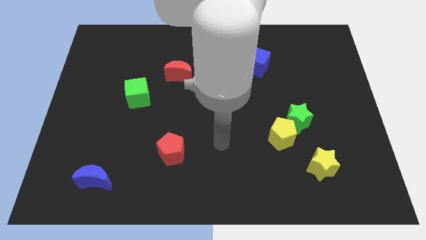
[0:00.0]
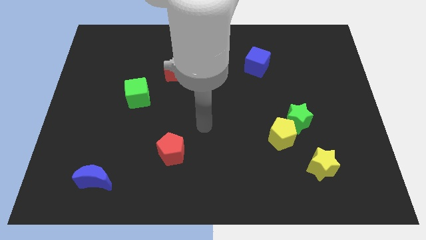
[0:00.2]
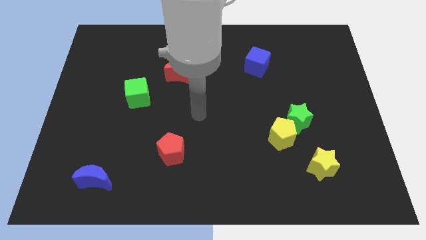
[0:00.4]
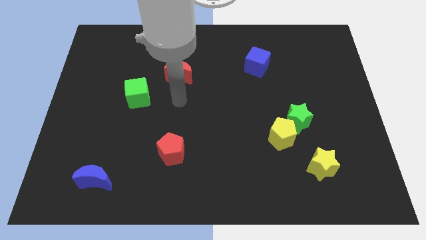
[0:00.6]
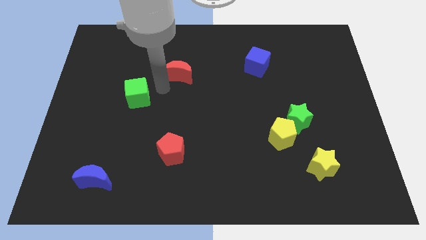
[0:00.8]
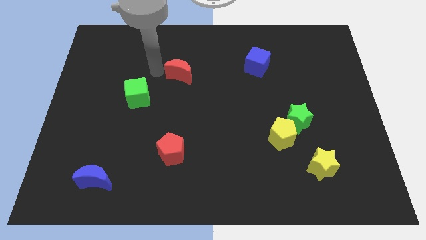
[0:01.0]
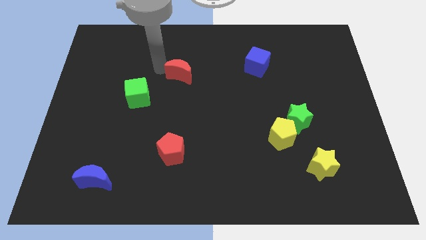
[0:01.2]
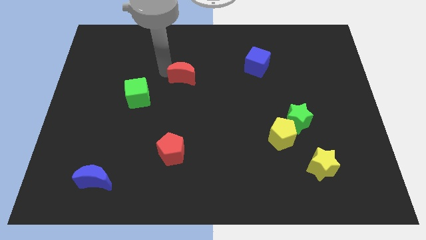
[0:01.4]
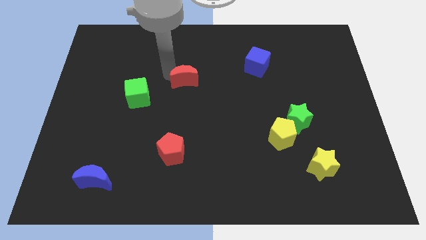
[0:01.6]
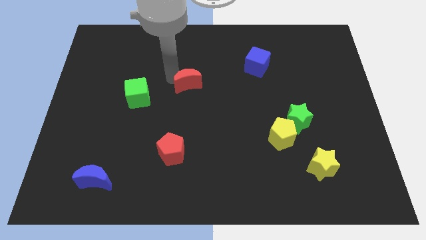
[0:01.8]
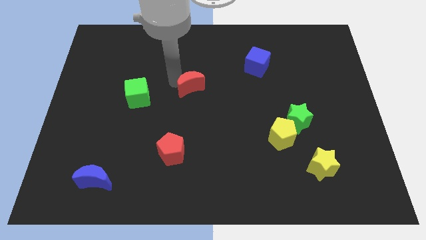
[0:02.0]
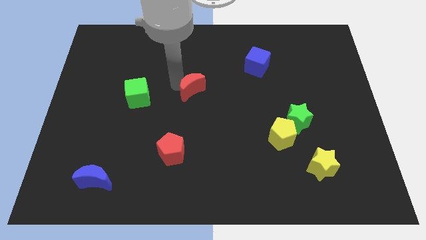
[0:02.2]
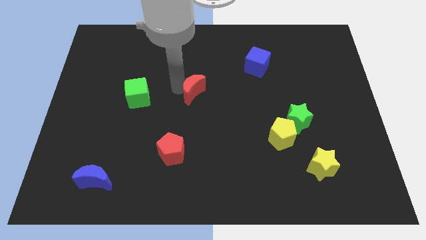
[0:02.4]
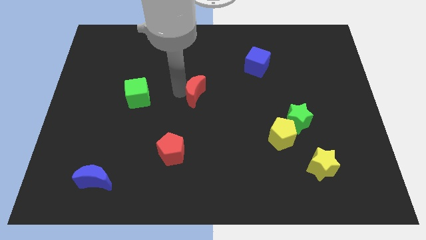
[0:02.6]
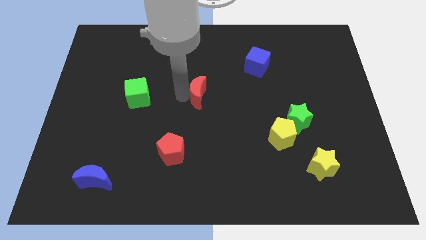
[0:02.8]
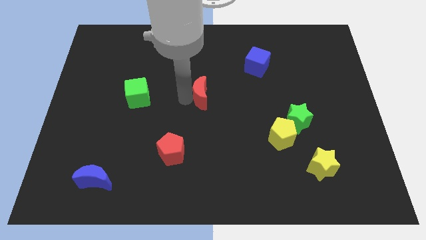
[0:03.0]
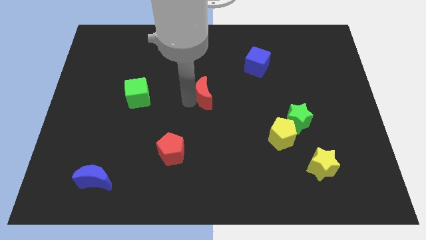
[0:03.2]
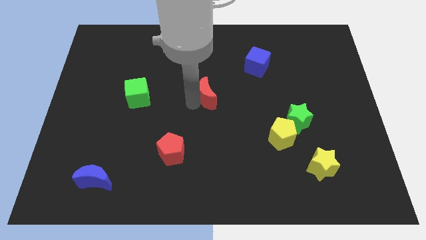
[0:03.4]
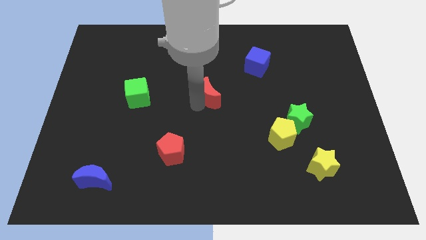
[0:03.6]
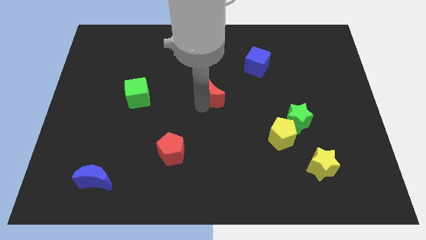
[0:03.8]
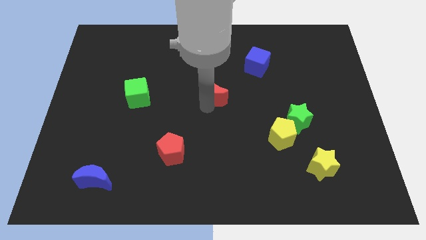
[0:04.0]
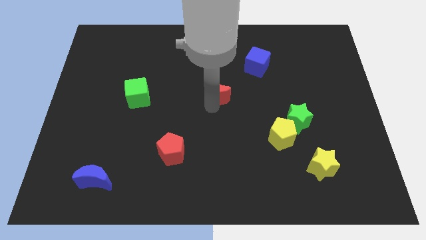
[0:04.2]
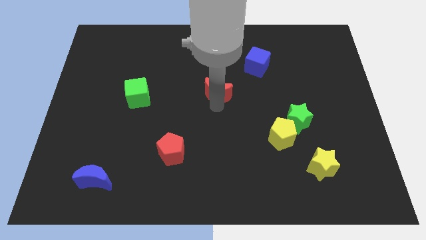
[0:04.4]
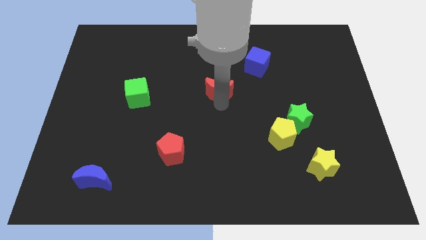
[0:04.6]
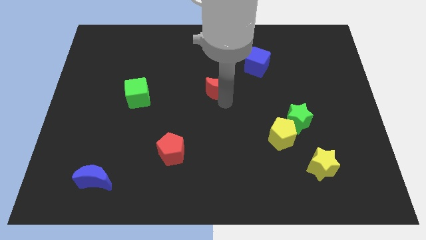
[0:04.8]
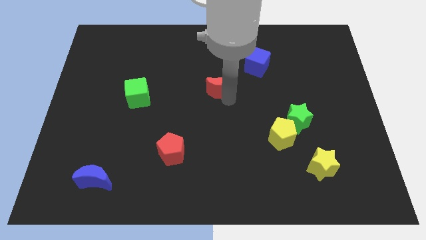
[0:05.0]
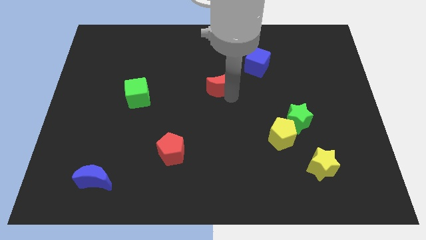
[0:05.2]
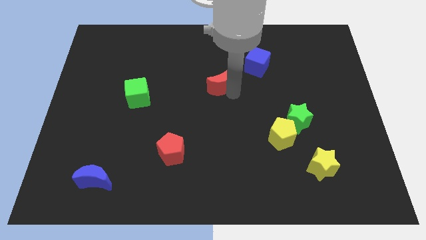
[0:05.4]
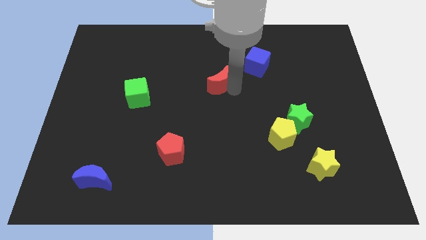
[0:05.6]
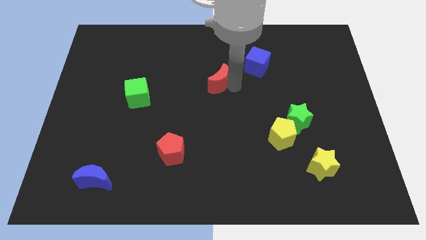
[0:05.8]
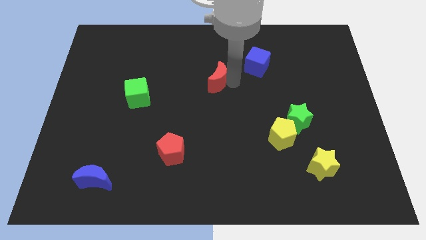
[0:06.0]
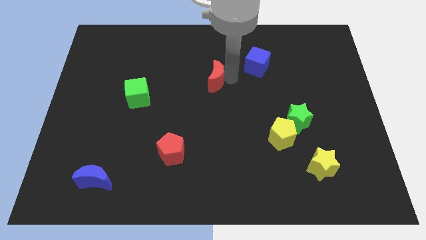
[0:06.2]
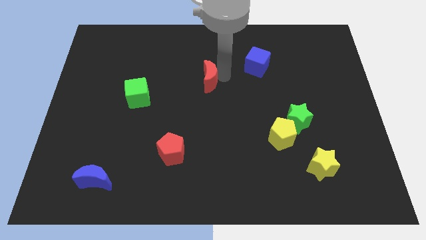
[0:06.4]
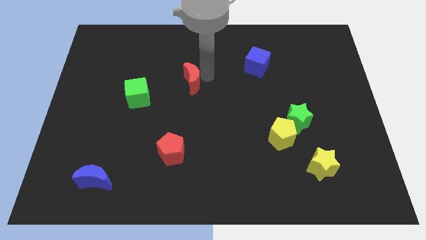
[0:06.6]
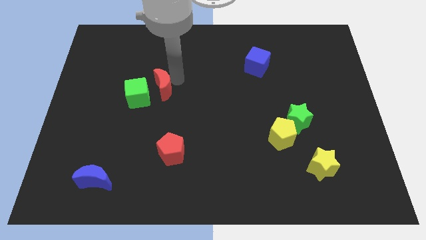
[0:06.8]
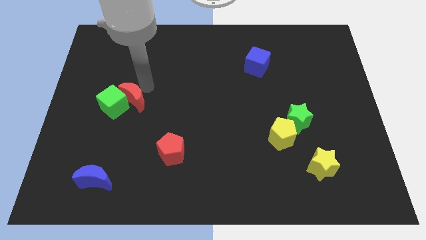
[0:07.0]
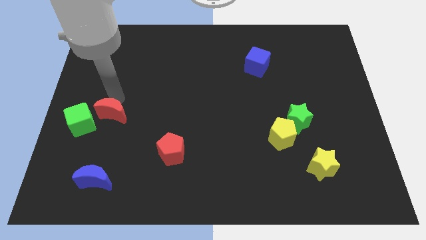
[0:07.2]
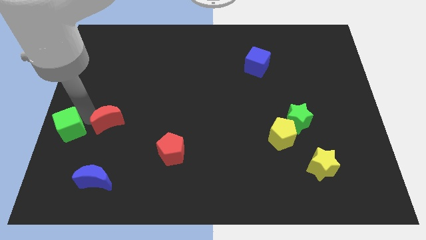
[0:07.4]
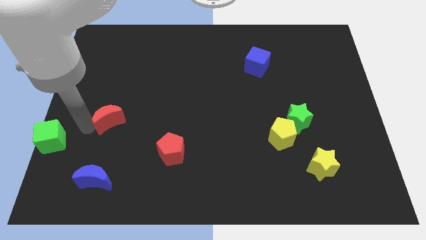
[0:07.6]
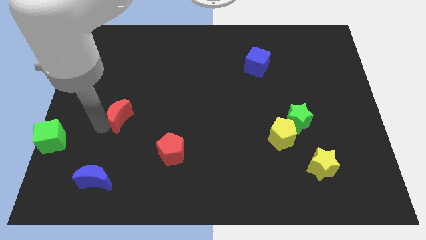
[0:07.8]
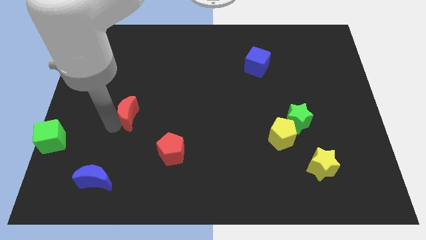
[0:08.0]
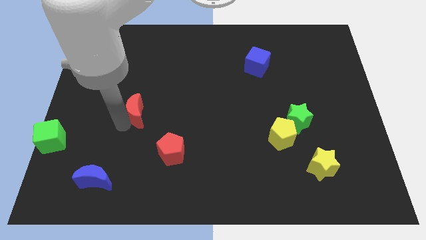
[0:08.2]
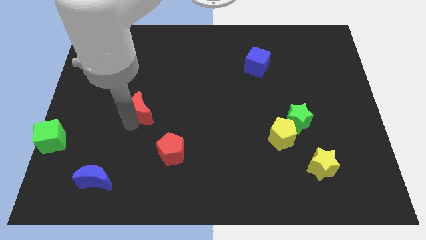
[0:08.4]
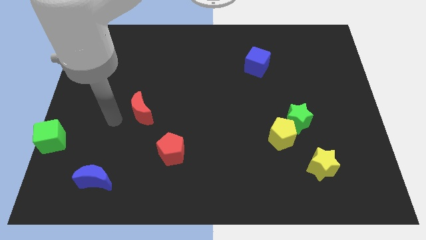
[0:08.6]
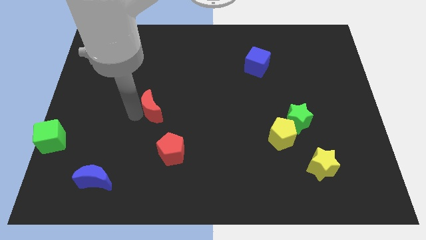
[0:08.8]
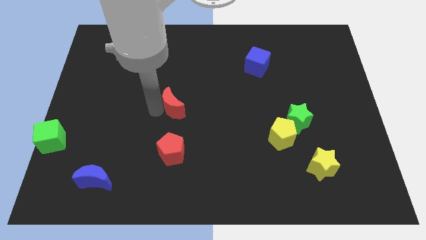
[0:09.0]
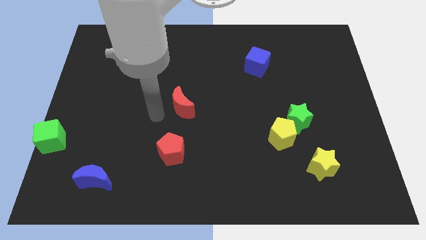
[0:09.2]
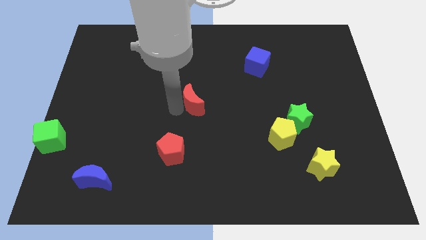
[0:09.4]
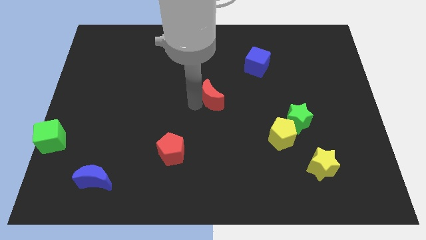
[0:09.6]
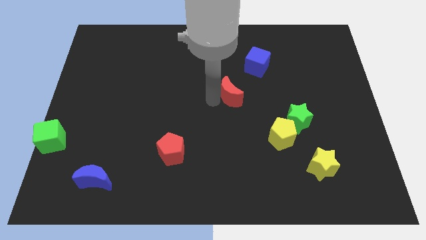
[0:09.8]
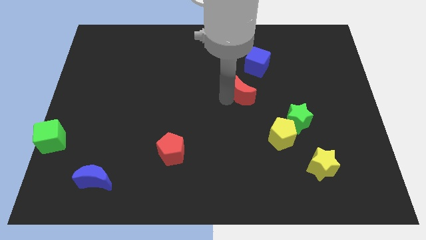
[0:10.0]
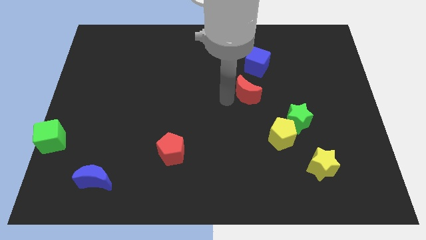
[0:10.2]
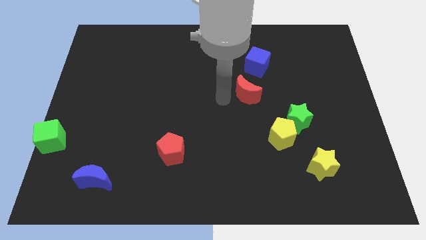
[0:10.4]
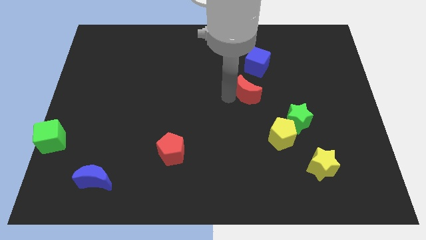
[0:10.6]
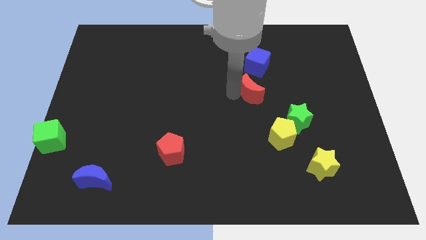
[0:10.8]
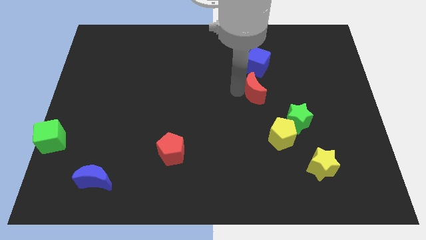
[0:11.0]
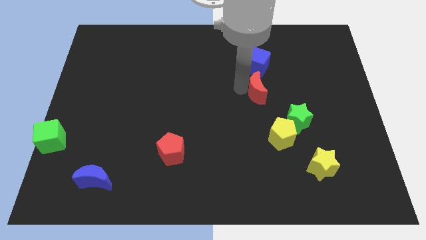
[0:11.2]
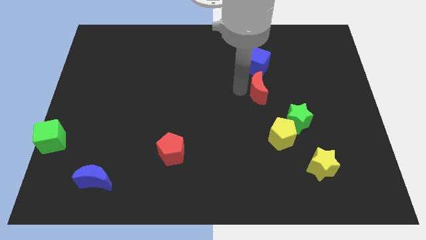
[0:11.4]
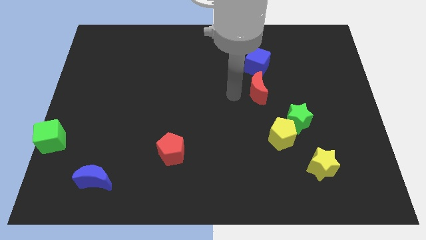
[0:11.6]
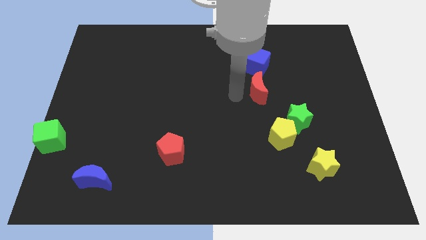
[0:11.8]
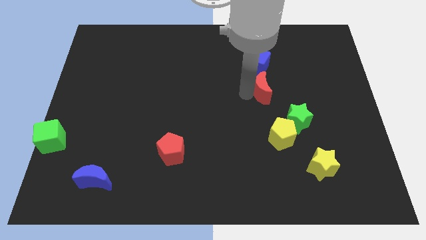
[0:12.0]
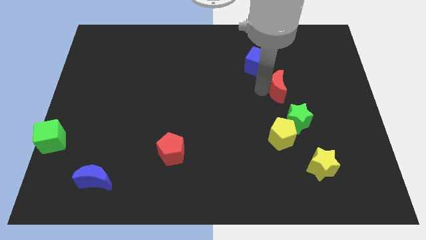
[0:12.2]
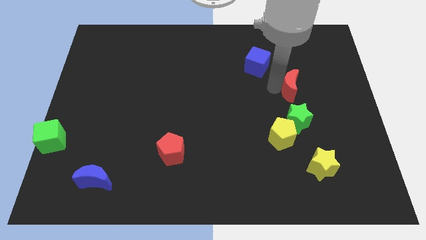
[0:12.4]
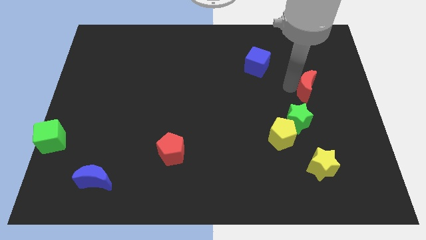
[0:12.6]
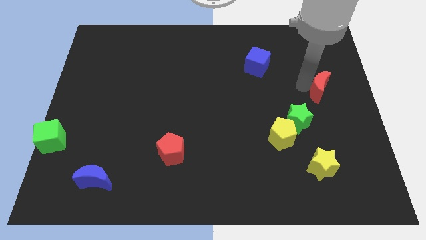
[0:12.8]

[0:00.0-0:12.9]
move the red moon to the right side
